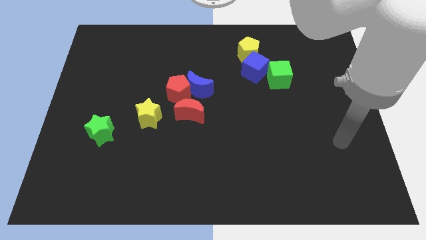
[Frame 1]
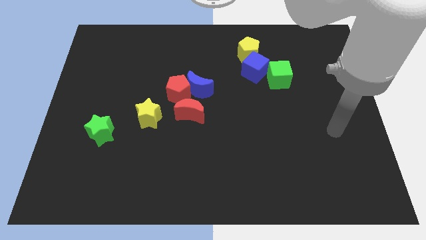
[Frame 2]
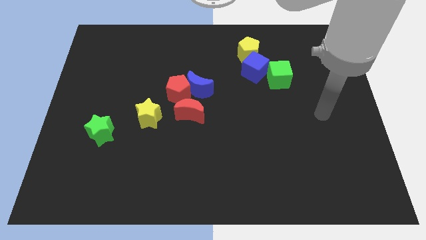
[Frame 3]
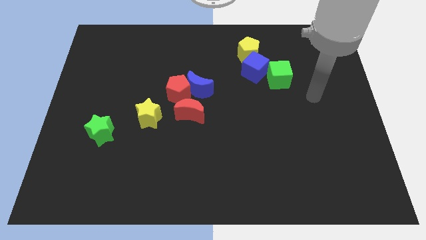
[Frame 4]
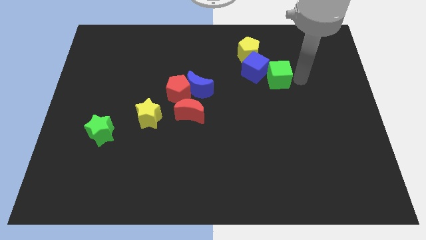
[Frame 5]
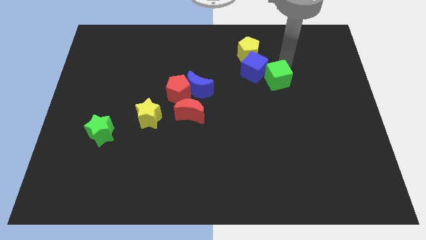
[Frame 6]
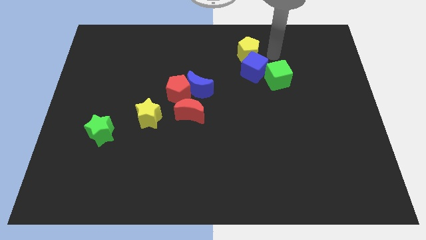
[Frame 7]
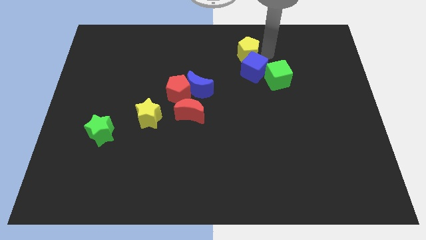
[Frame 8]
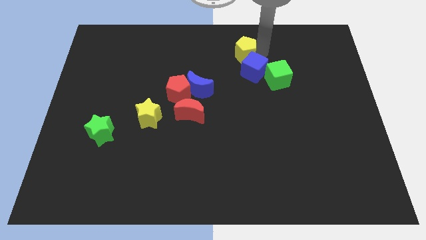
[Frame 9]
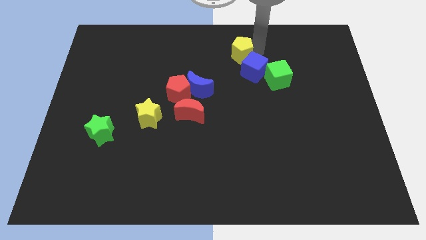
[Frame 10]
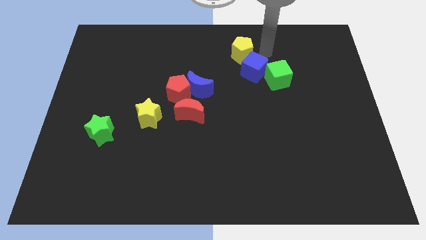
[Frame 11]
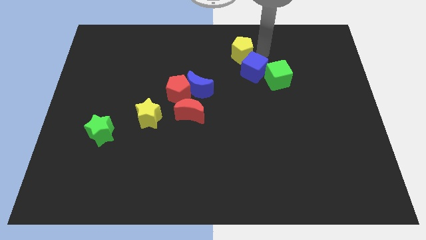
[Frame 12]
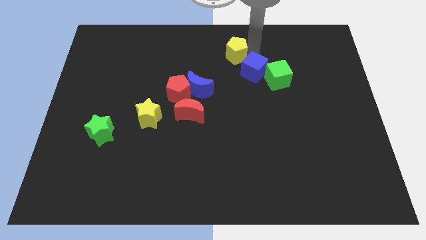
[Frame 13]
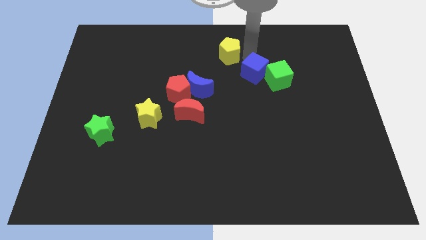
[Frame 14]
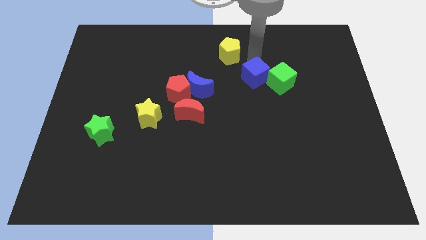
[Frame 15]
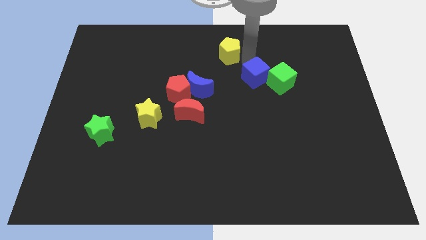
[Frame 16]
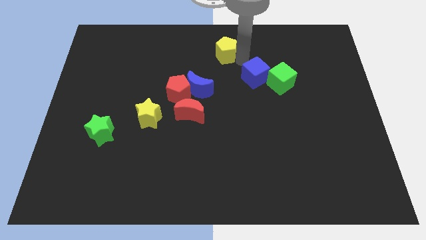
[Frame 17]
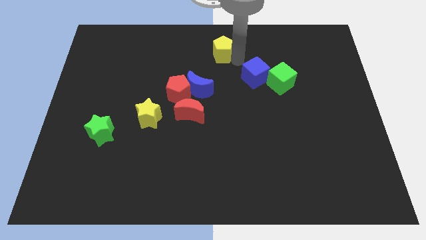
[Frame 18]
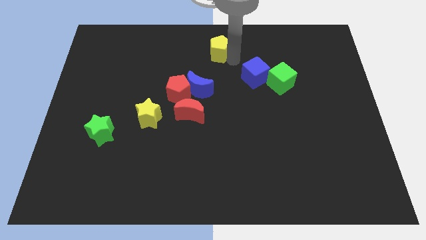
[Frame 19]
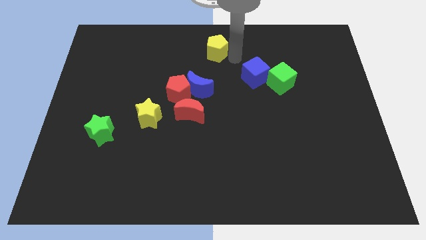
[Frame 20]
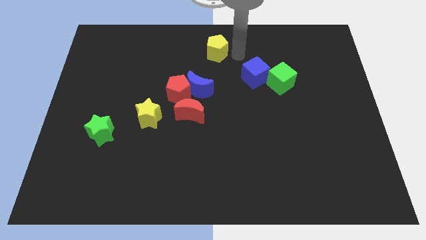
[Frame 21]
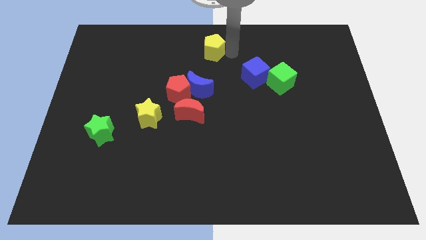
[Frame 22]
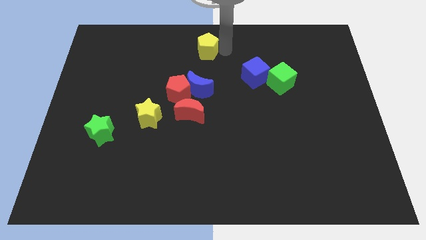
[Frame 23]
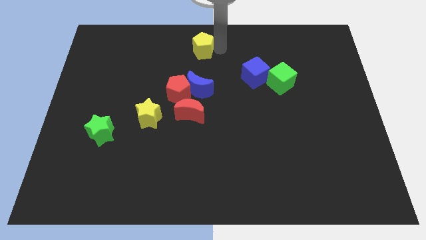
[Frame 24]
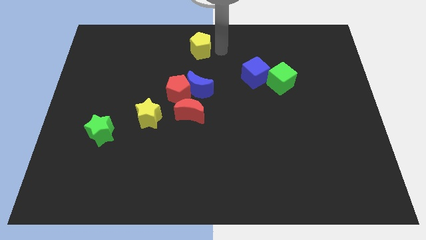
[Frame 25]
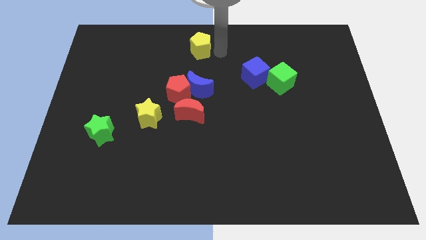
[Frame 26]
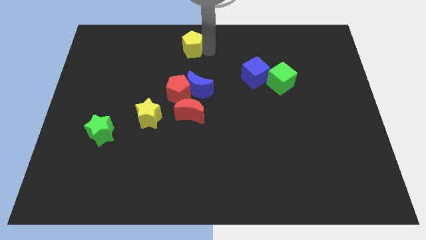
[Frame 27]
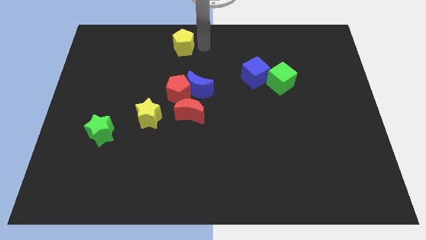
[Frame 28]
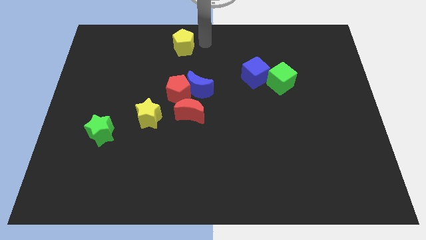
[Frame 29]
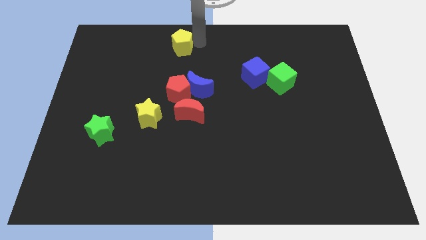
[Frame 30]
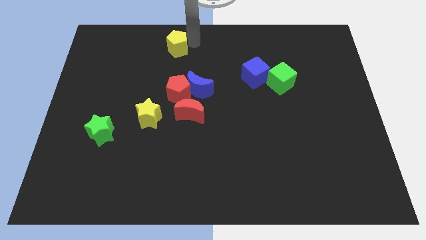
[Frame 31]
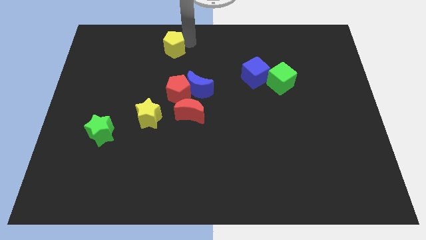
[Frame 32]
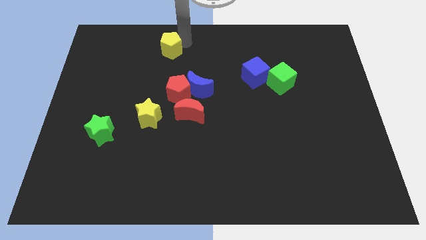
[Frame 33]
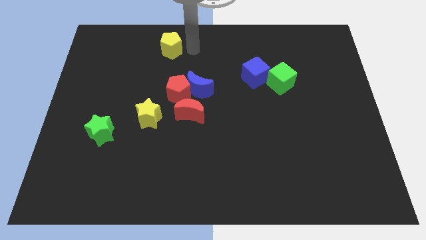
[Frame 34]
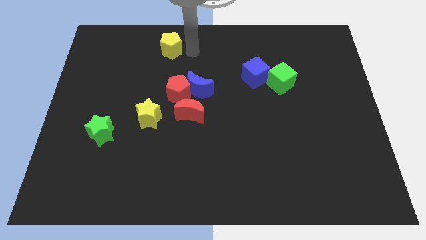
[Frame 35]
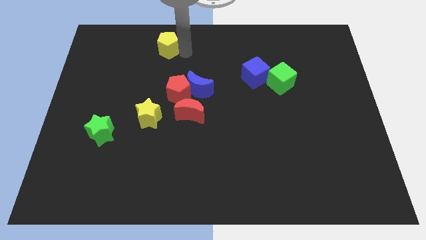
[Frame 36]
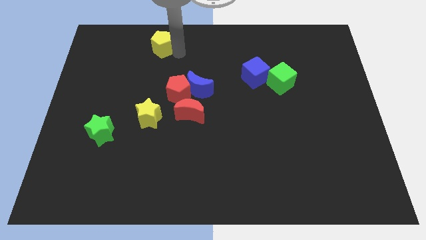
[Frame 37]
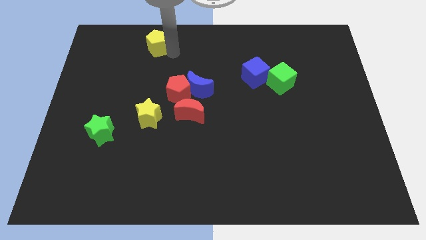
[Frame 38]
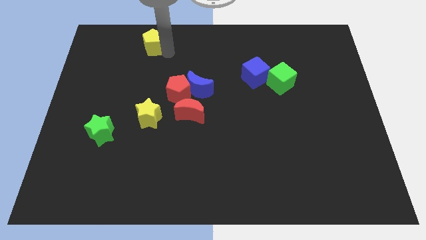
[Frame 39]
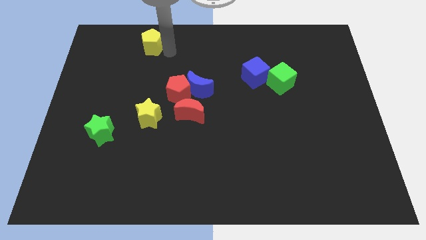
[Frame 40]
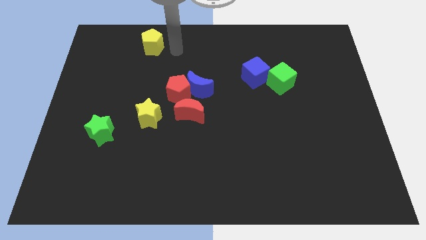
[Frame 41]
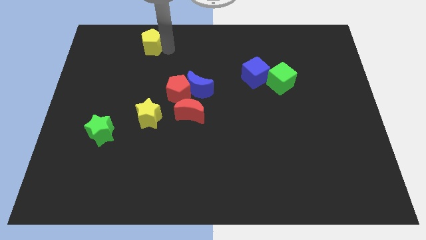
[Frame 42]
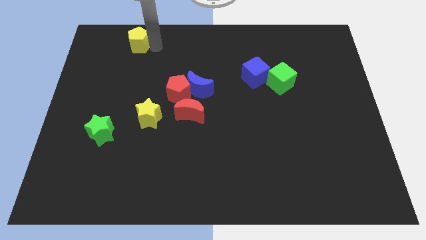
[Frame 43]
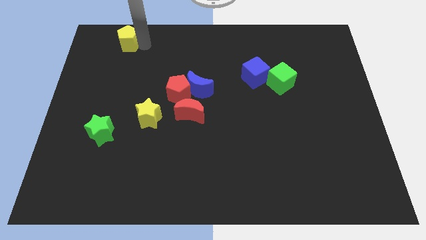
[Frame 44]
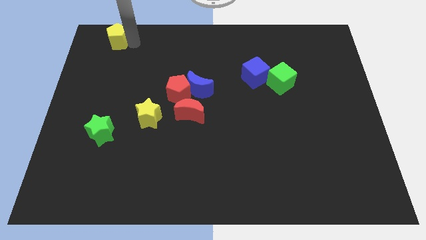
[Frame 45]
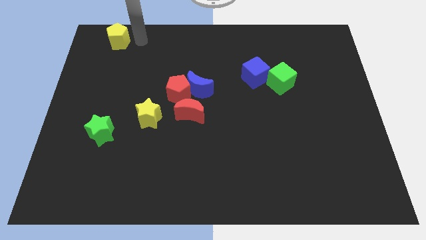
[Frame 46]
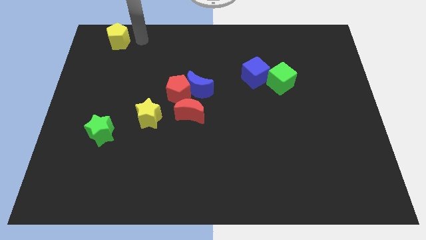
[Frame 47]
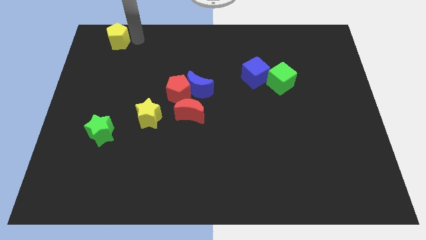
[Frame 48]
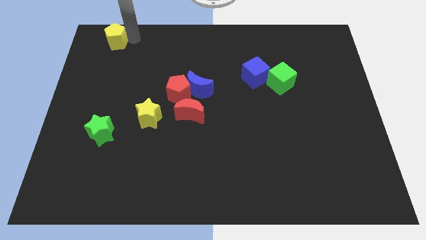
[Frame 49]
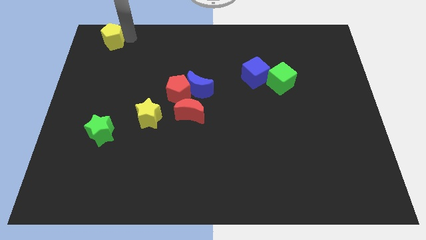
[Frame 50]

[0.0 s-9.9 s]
put the yellow pentagon to the top left

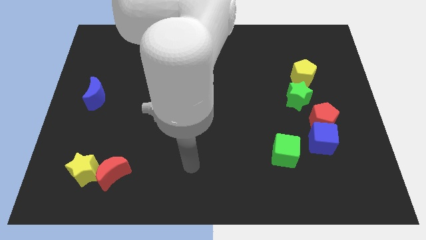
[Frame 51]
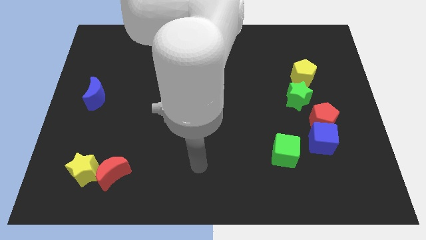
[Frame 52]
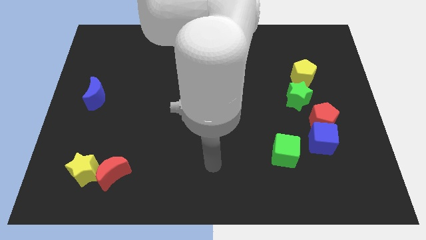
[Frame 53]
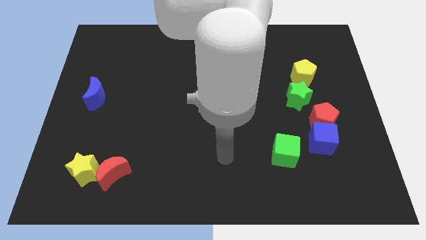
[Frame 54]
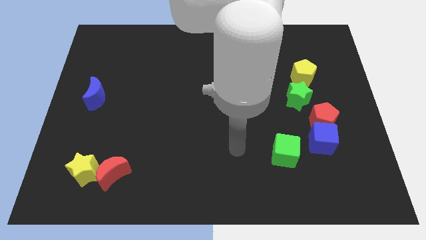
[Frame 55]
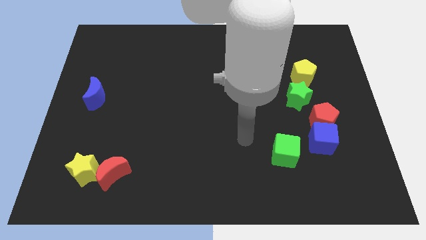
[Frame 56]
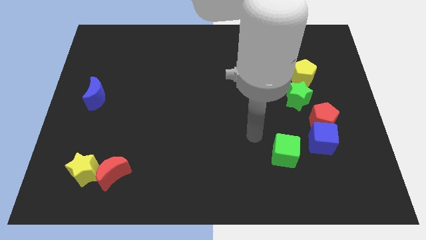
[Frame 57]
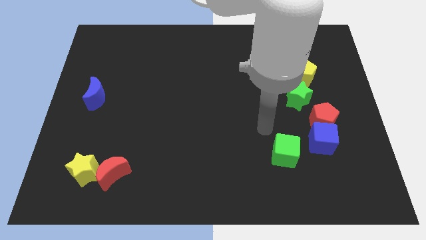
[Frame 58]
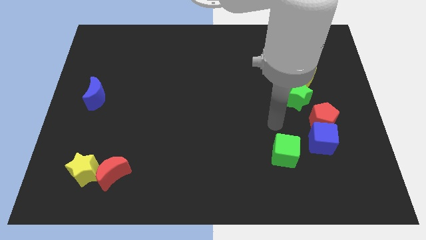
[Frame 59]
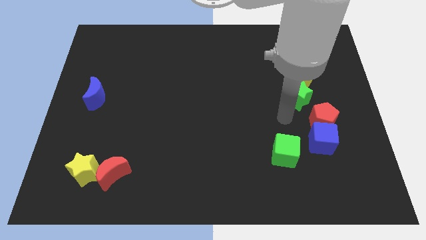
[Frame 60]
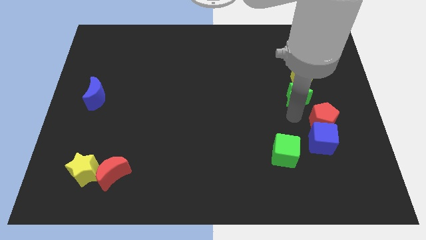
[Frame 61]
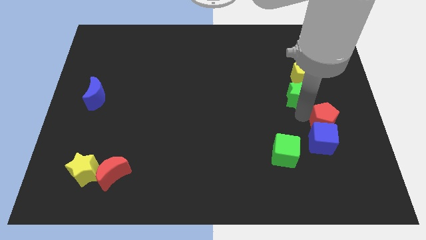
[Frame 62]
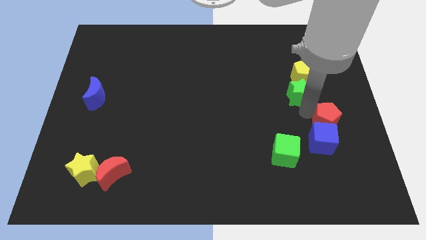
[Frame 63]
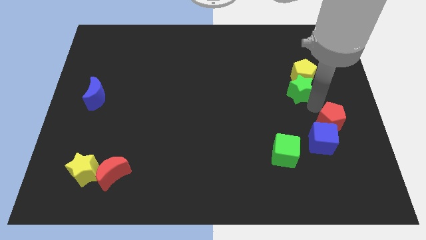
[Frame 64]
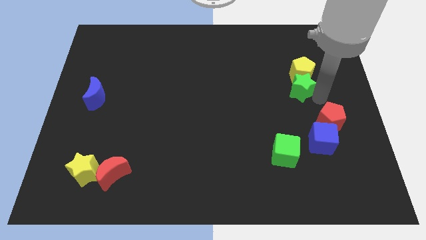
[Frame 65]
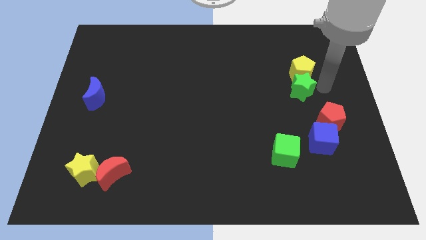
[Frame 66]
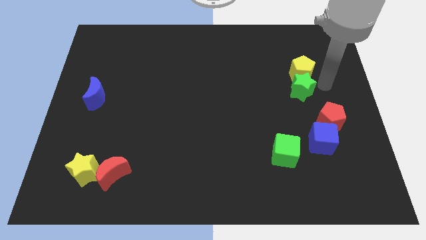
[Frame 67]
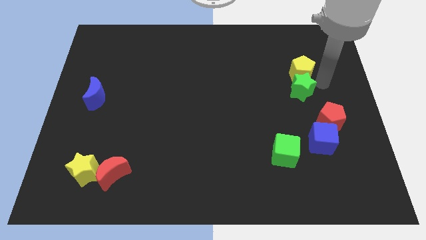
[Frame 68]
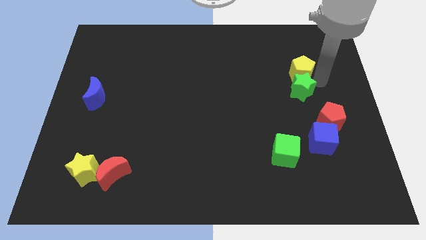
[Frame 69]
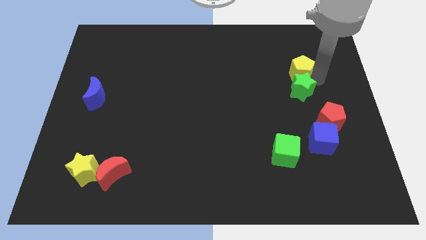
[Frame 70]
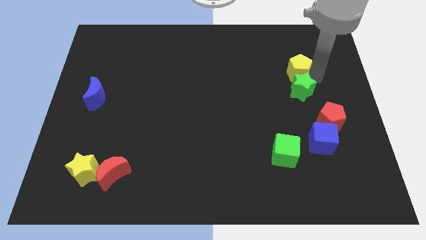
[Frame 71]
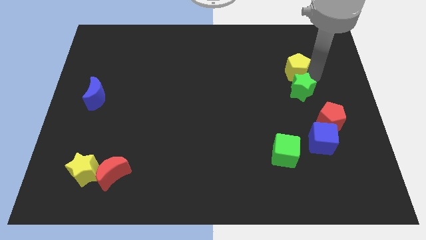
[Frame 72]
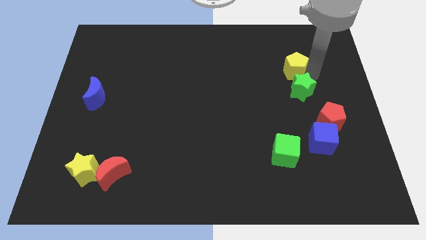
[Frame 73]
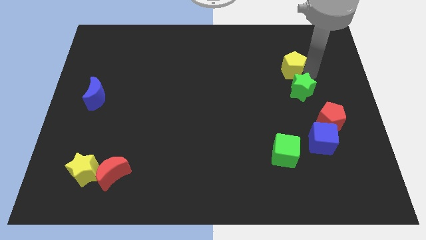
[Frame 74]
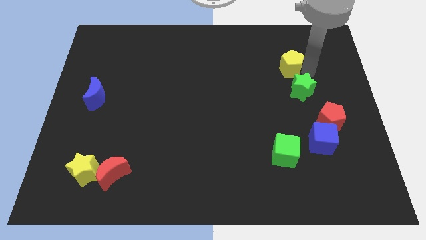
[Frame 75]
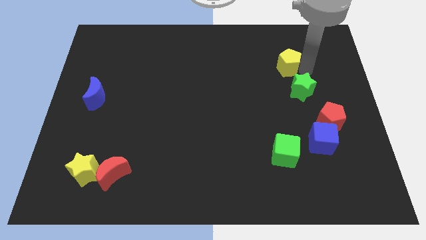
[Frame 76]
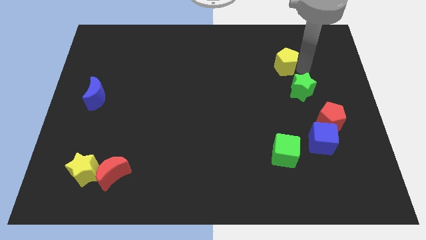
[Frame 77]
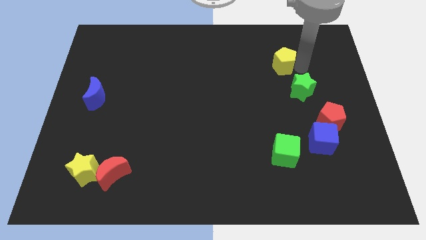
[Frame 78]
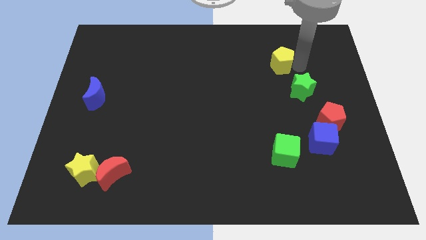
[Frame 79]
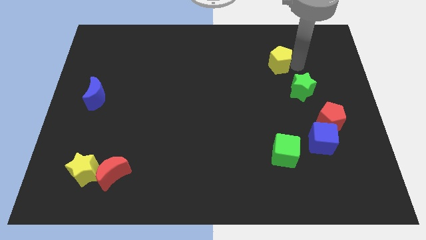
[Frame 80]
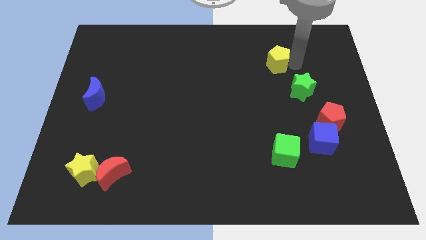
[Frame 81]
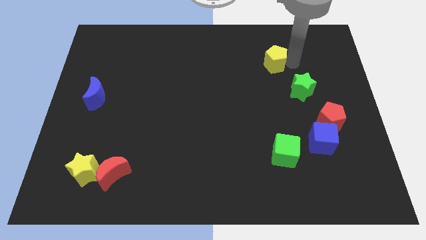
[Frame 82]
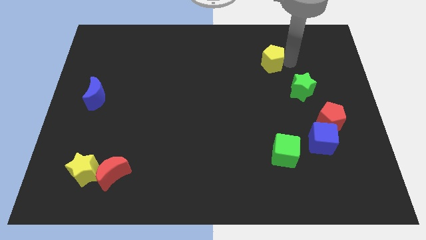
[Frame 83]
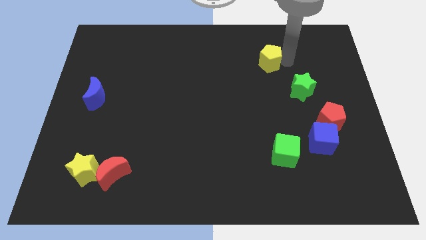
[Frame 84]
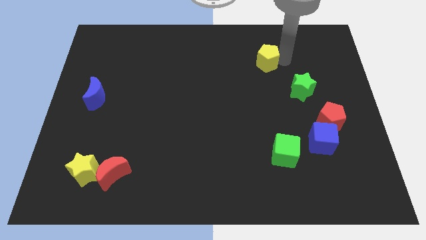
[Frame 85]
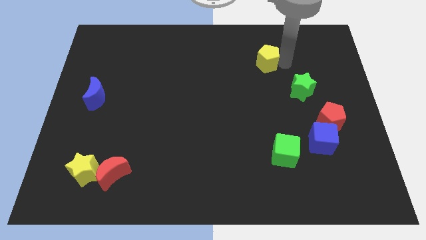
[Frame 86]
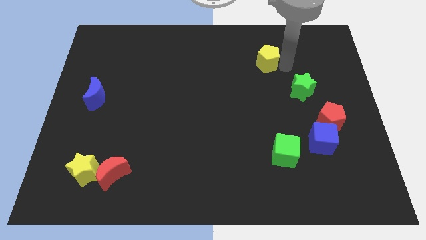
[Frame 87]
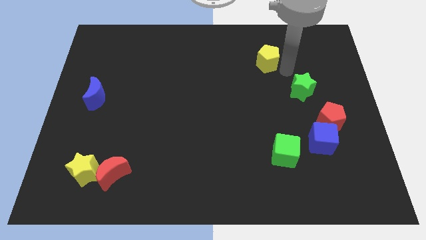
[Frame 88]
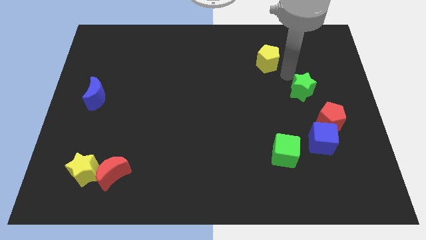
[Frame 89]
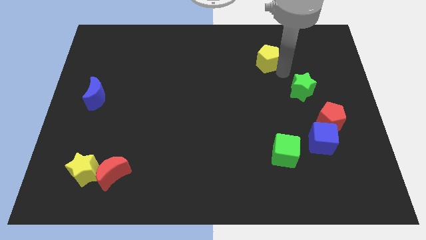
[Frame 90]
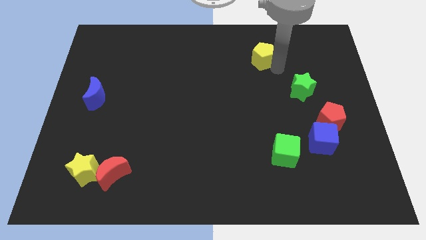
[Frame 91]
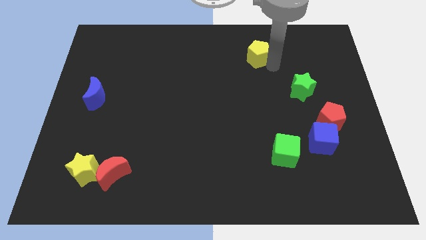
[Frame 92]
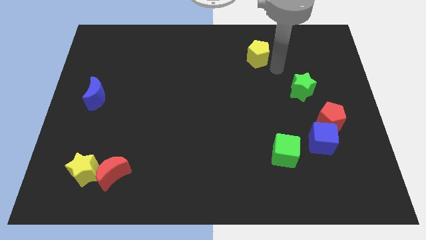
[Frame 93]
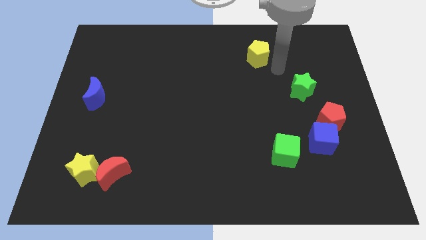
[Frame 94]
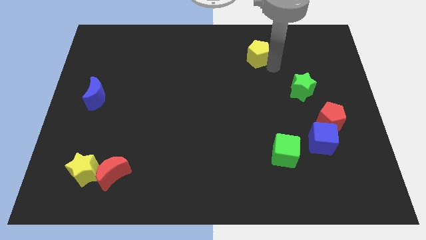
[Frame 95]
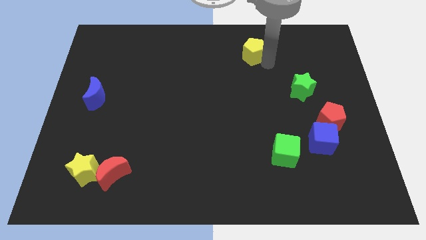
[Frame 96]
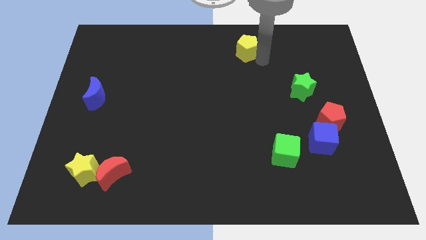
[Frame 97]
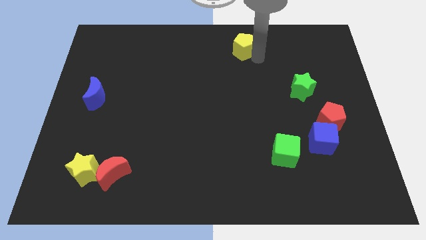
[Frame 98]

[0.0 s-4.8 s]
slide the yellow pentagon to the top side
